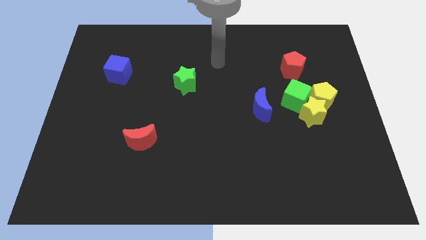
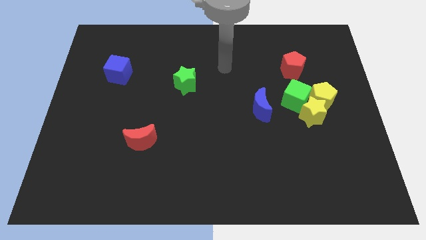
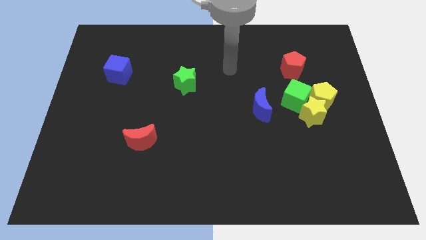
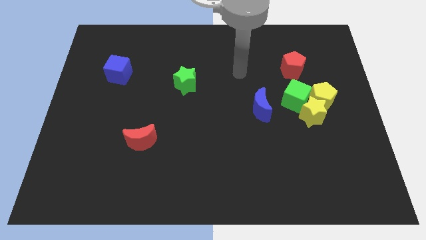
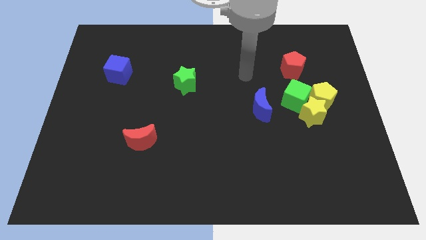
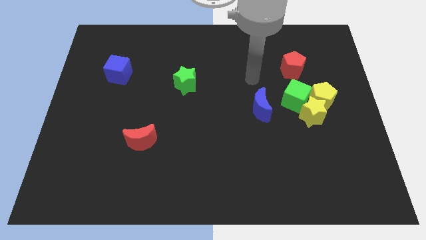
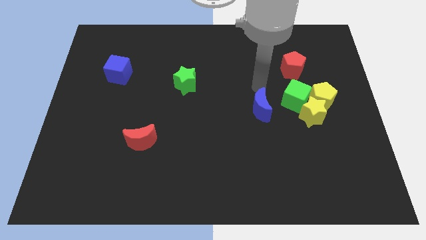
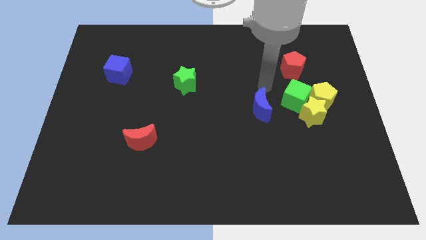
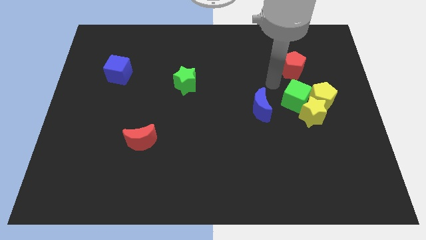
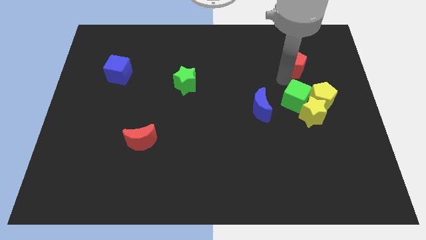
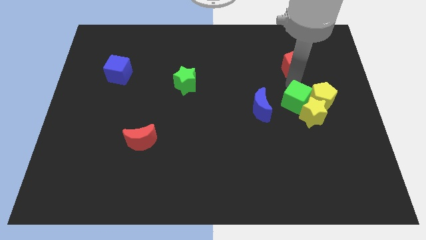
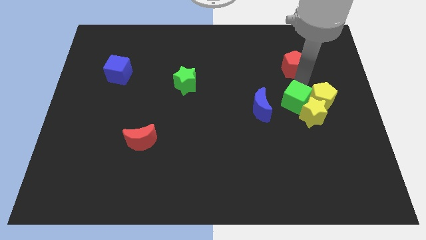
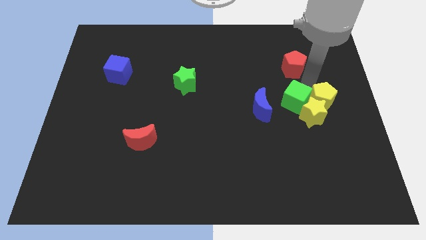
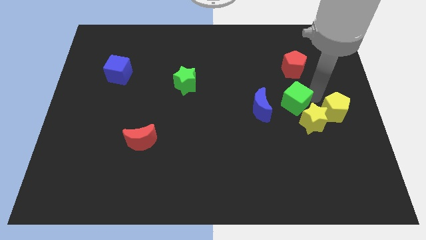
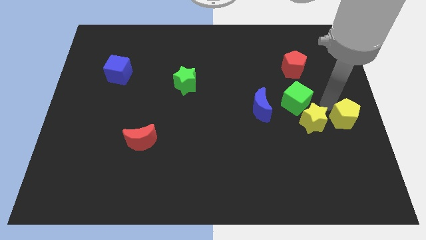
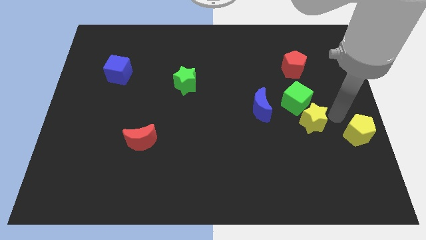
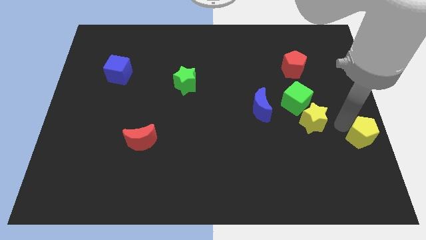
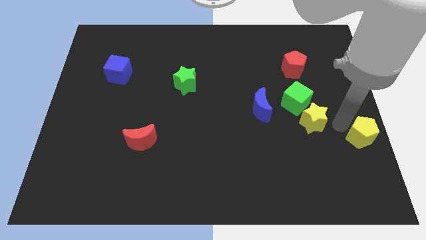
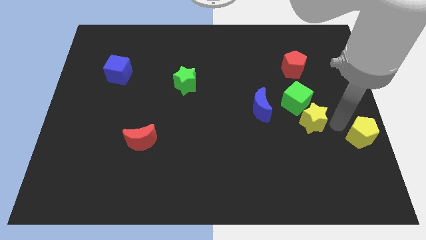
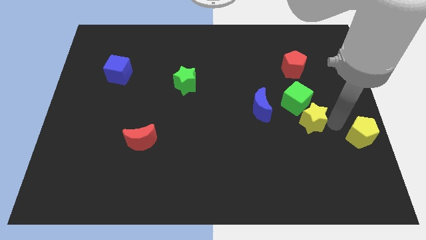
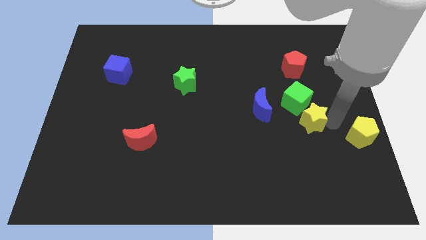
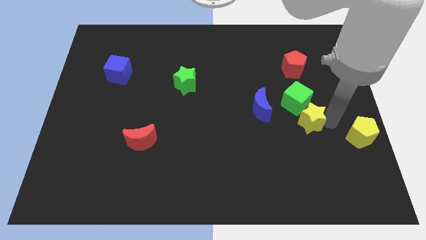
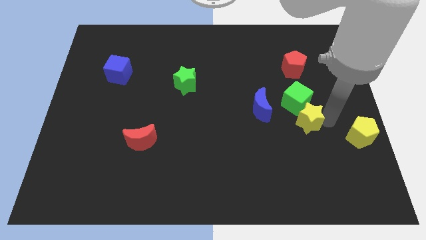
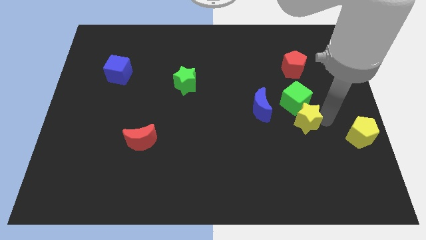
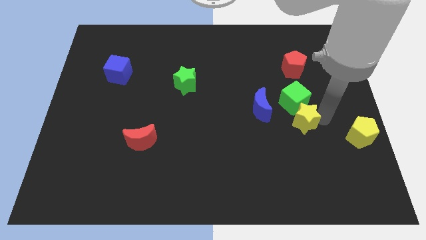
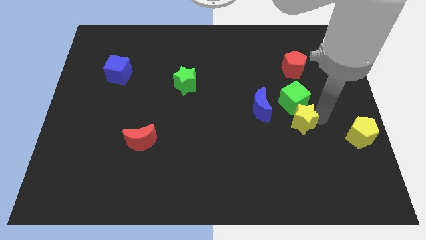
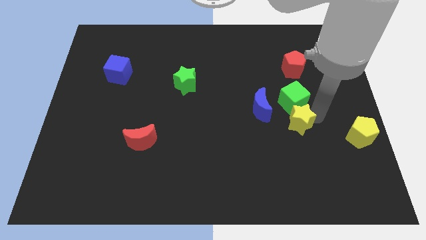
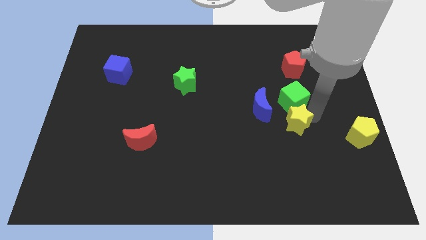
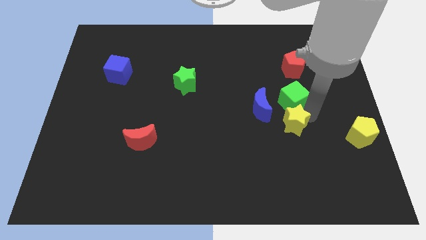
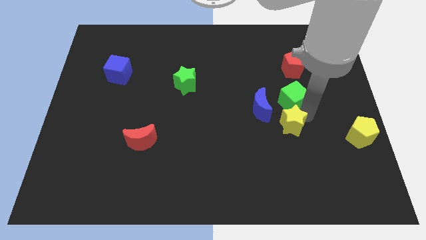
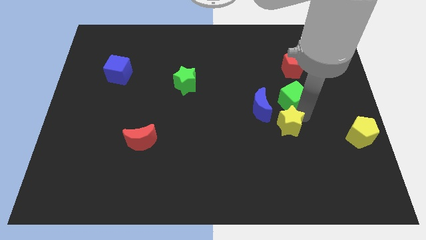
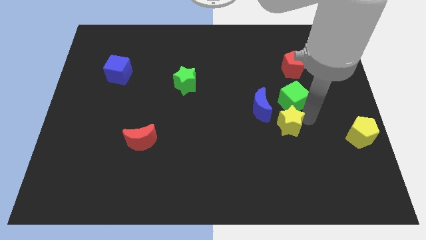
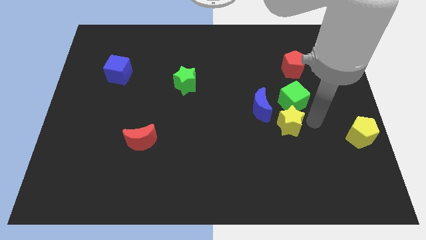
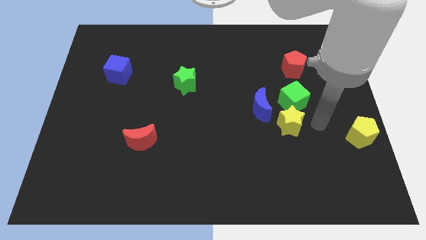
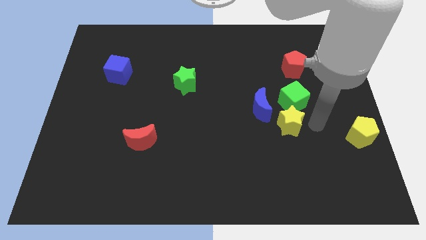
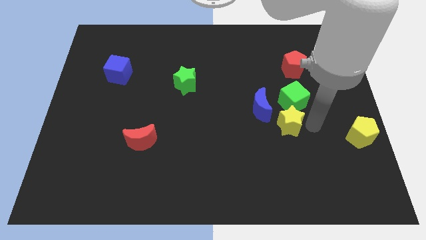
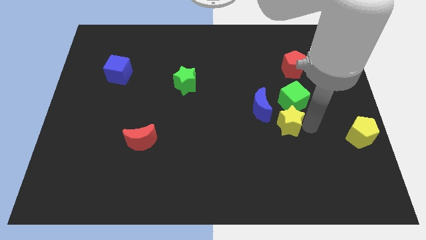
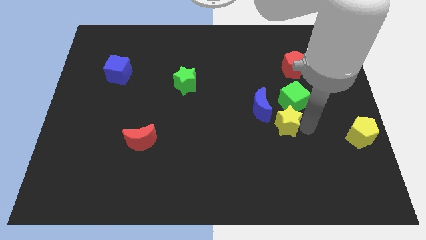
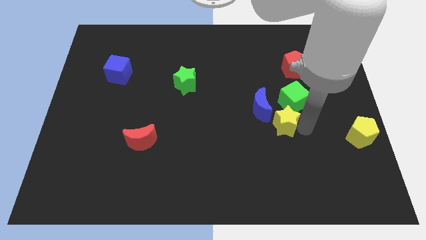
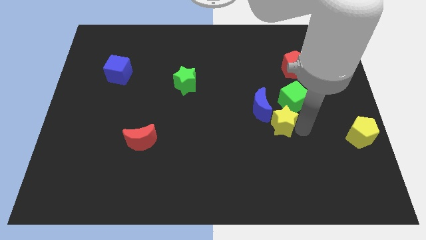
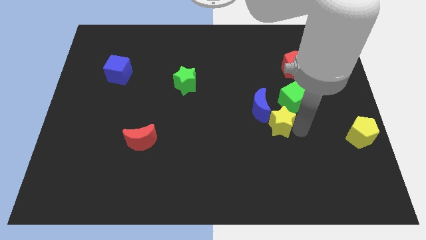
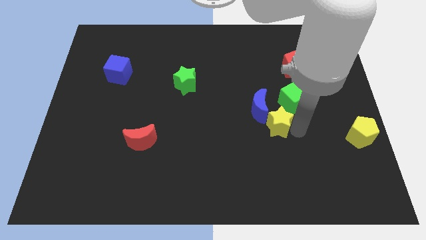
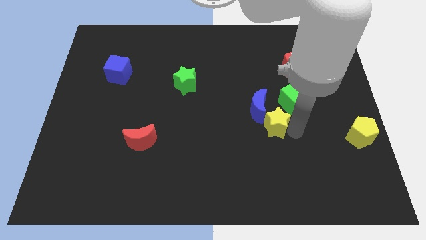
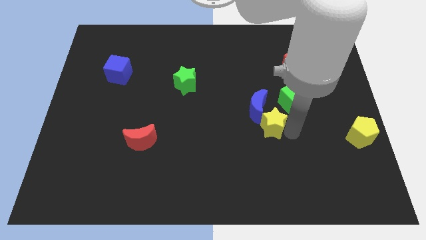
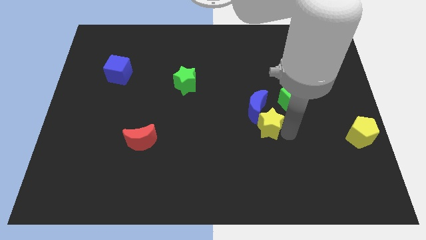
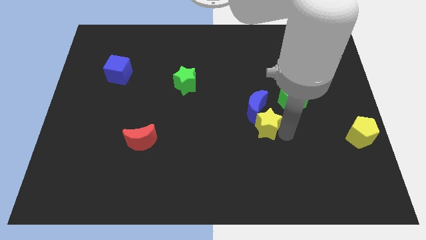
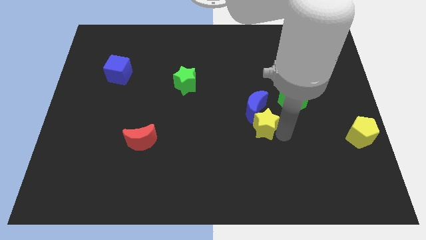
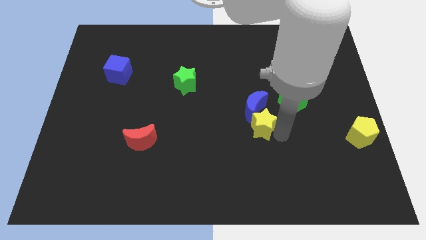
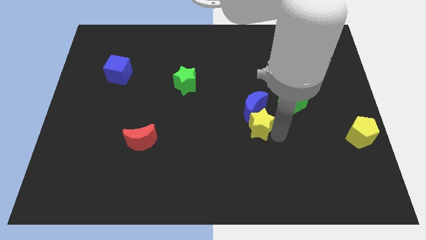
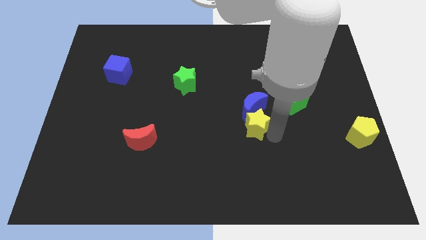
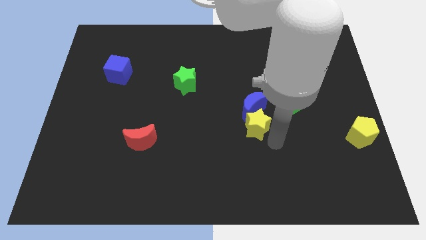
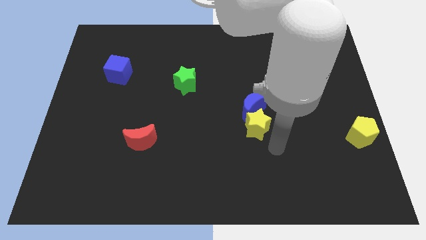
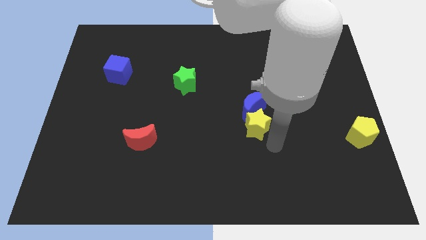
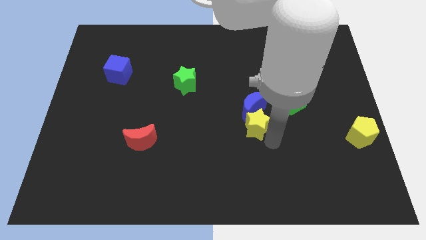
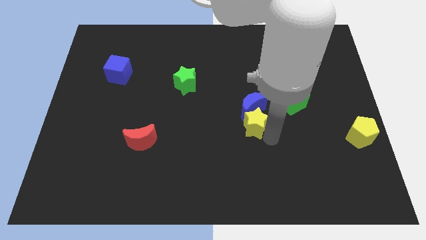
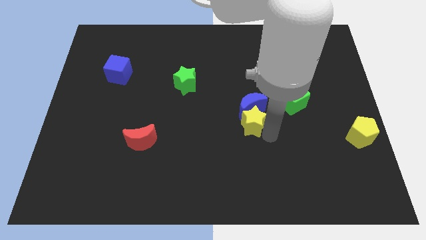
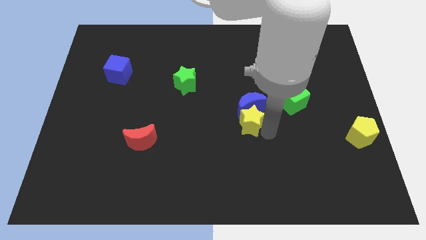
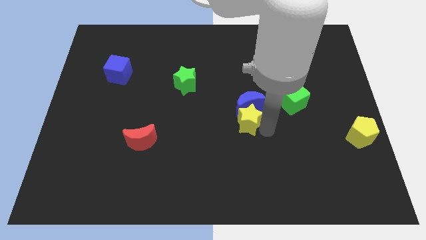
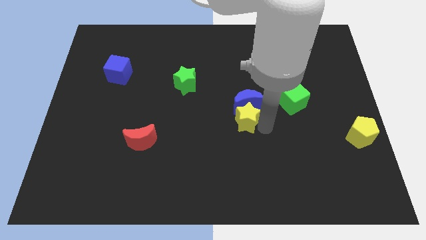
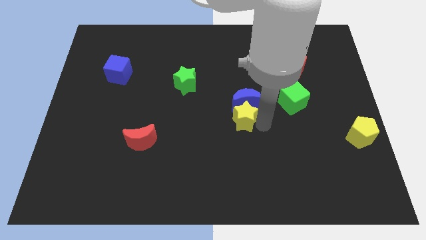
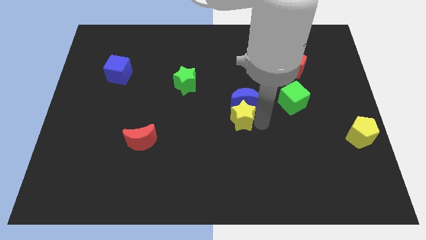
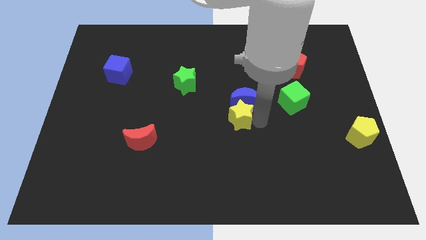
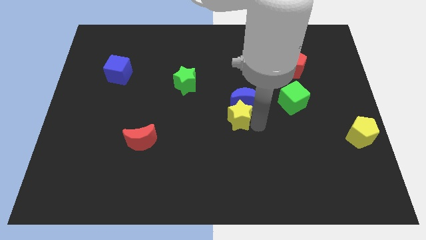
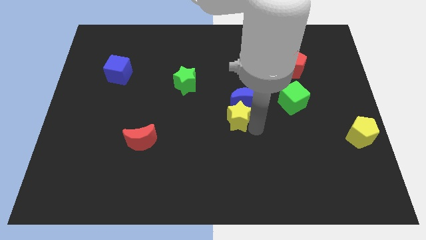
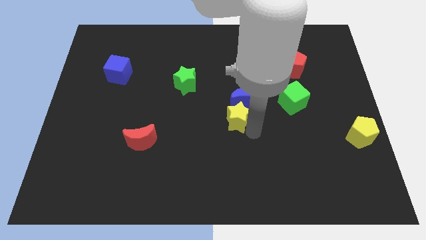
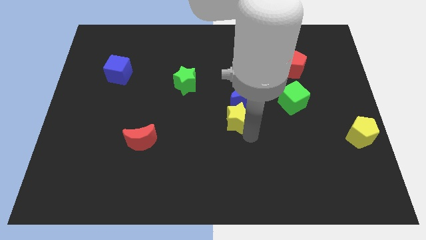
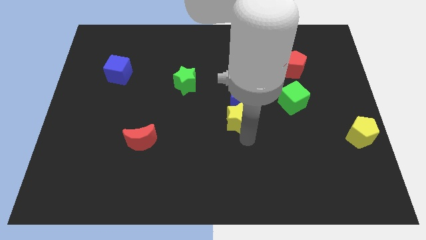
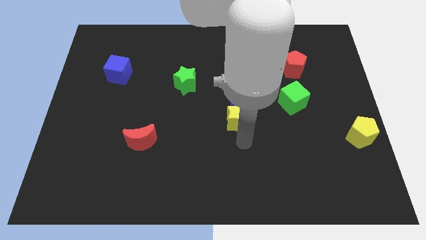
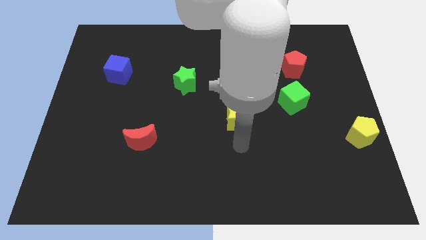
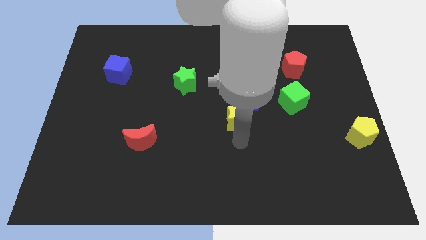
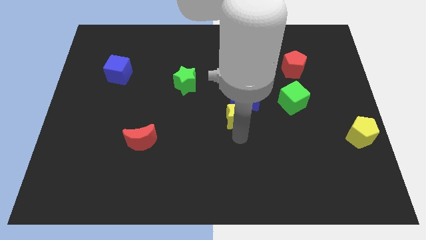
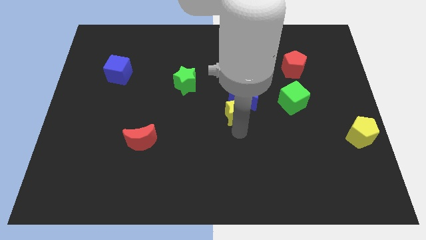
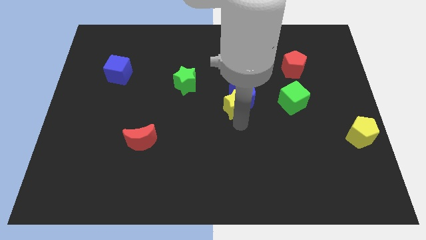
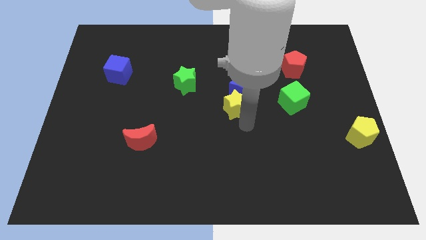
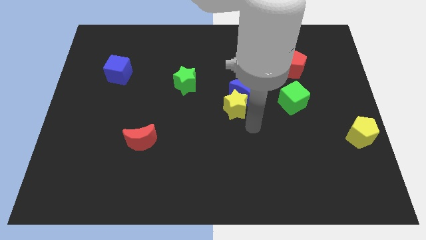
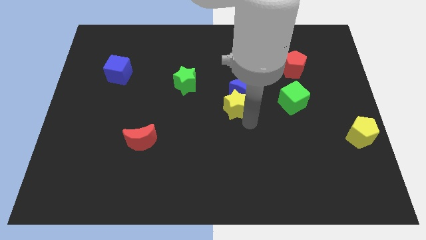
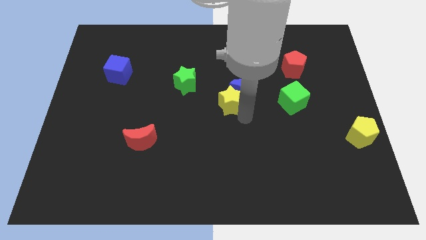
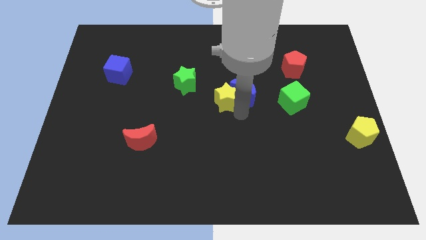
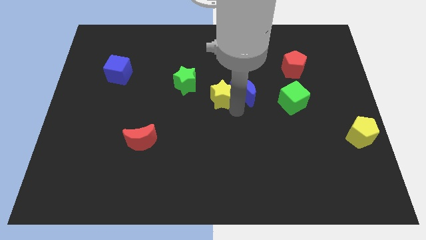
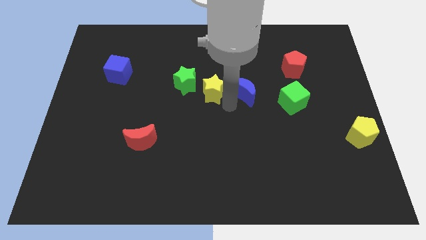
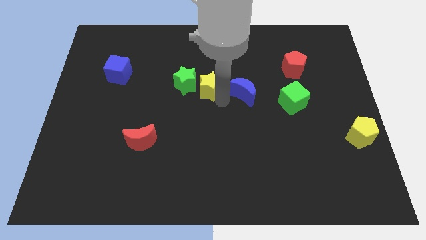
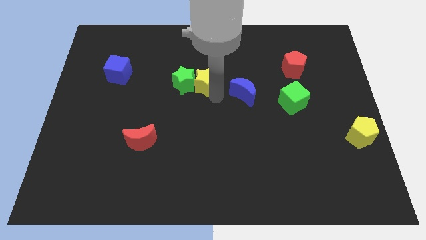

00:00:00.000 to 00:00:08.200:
put the yellow star to the top right of the green star
